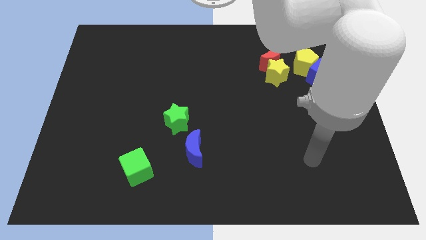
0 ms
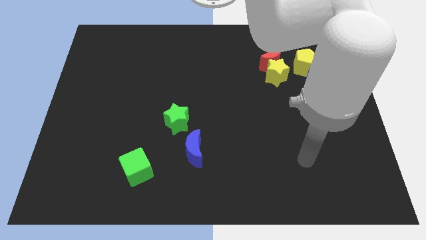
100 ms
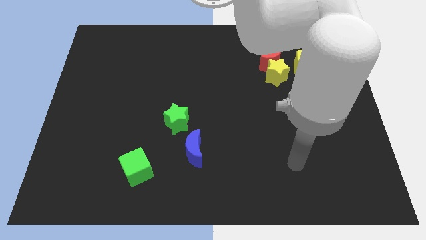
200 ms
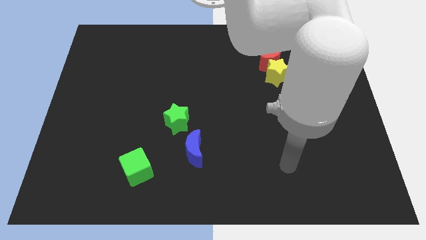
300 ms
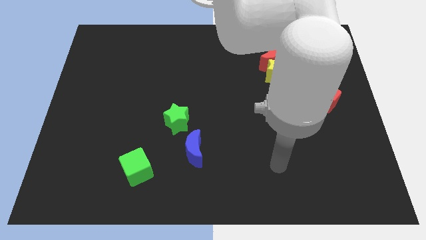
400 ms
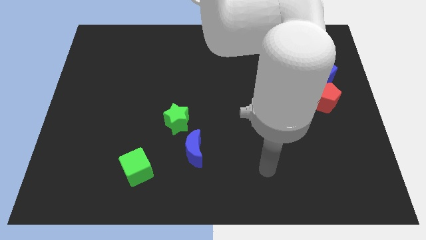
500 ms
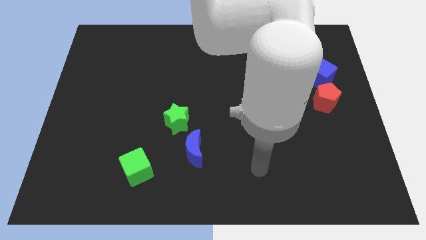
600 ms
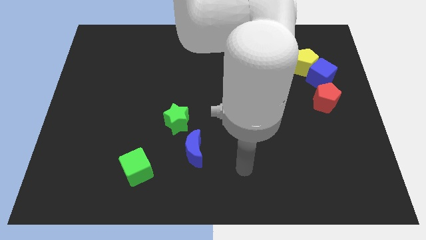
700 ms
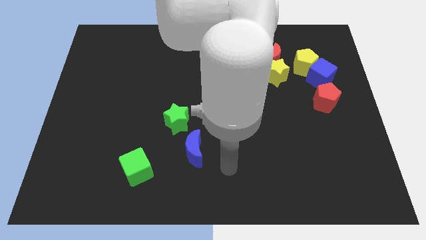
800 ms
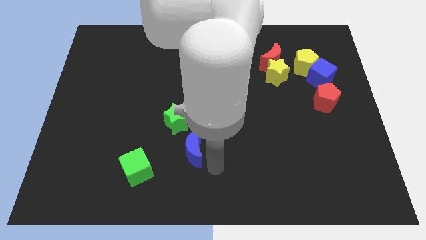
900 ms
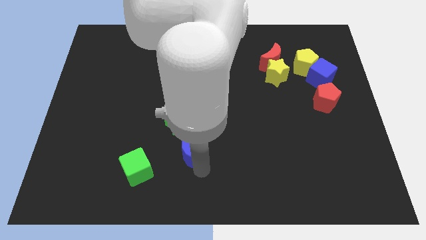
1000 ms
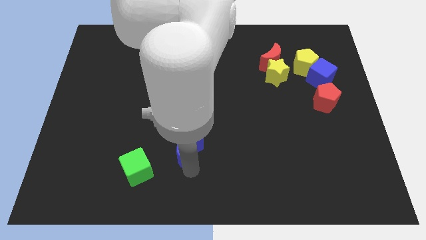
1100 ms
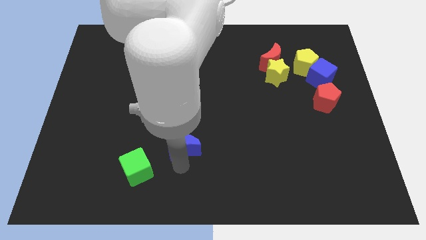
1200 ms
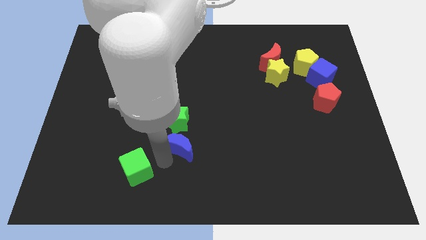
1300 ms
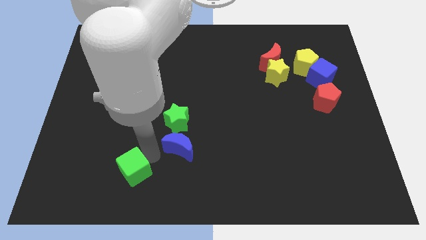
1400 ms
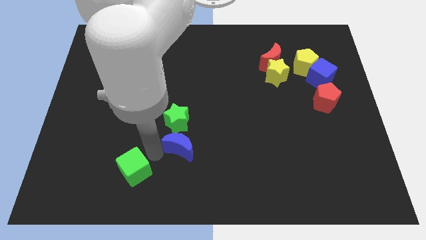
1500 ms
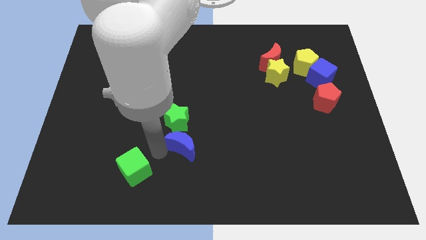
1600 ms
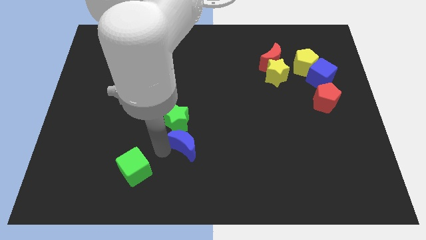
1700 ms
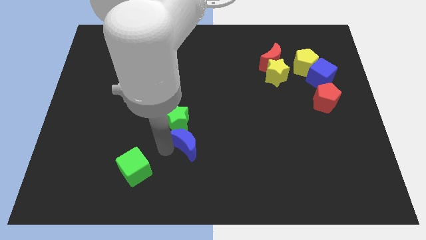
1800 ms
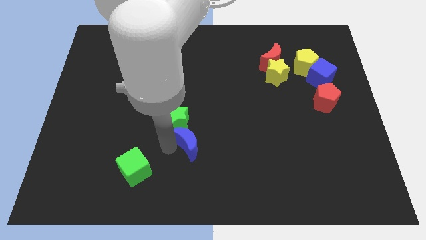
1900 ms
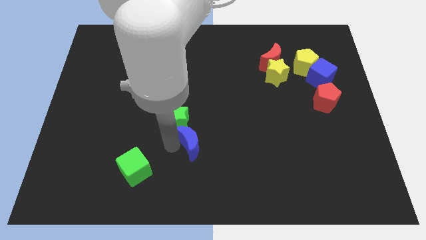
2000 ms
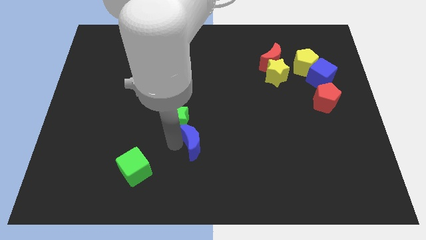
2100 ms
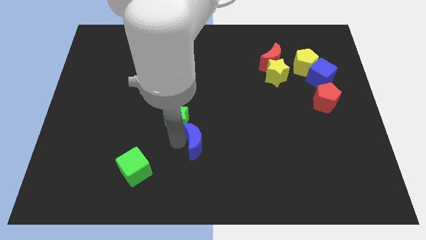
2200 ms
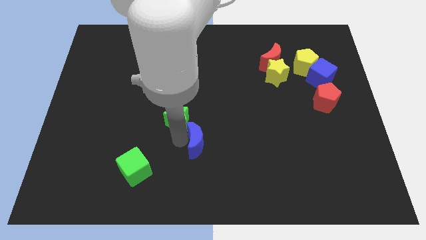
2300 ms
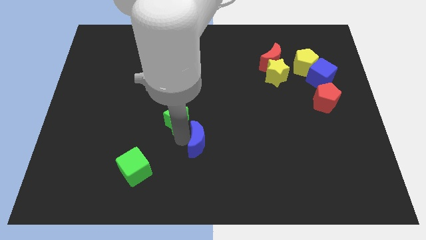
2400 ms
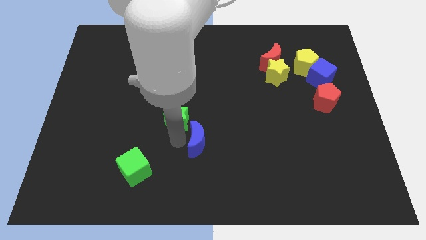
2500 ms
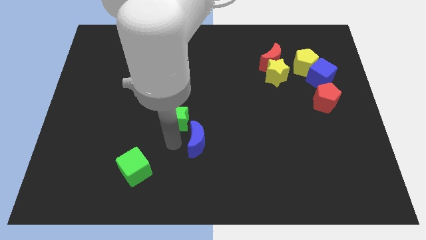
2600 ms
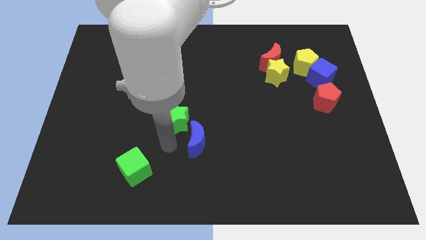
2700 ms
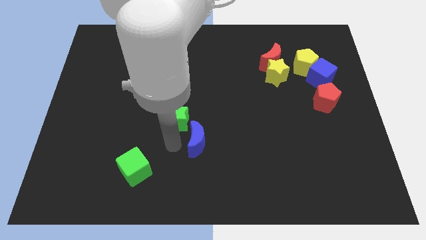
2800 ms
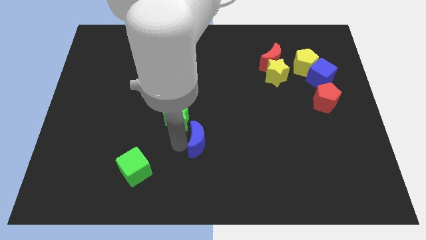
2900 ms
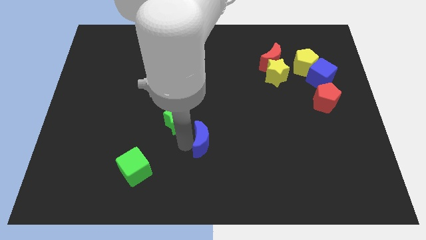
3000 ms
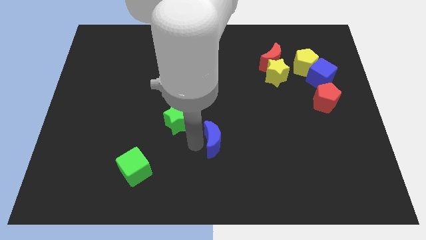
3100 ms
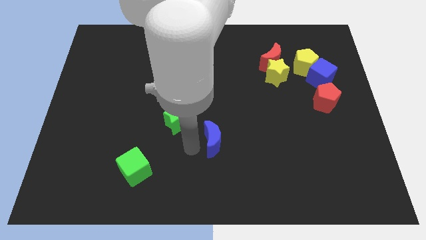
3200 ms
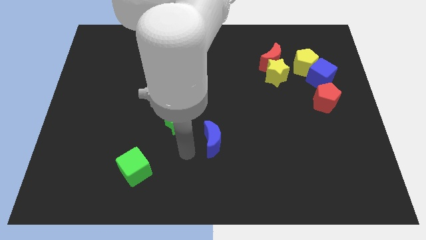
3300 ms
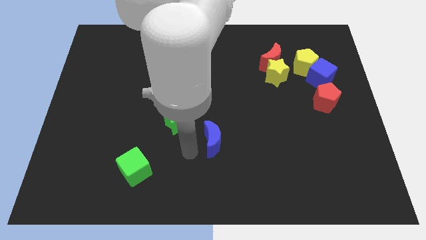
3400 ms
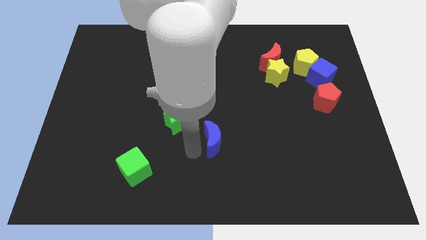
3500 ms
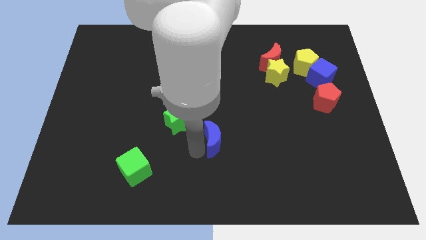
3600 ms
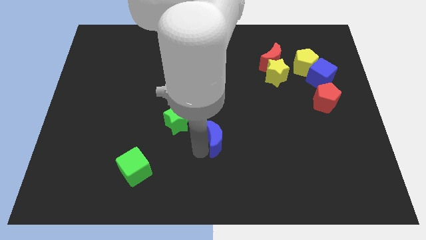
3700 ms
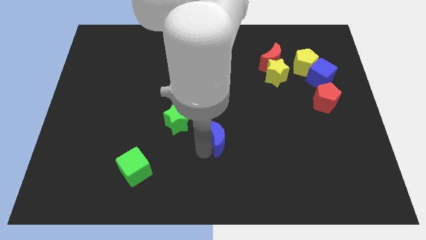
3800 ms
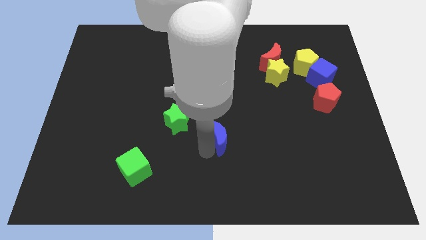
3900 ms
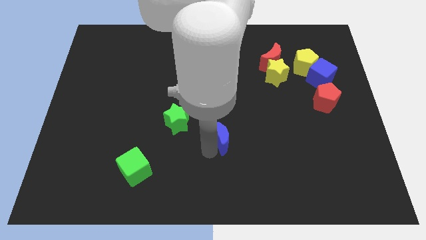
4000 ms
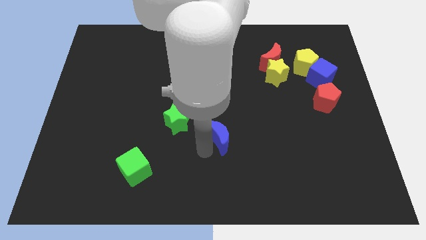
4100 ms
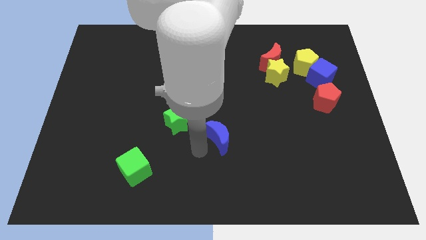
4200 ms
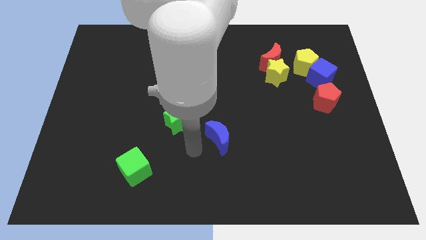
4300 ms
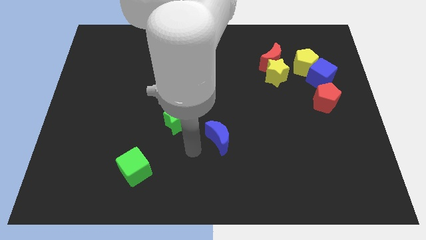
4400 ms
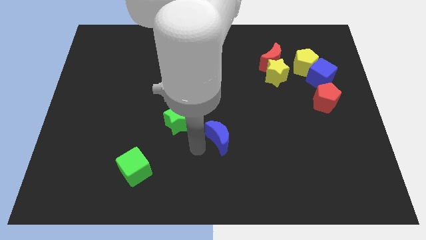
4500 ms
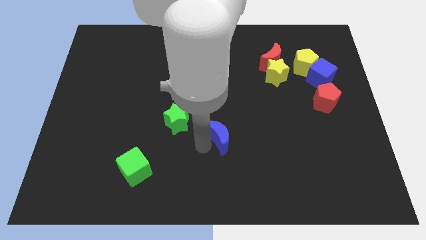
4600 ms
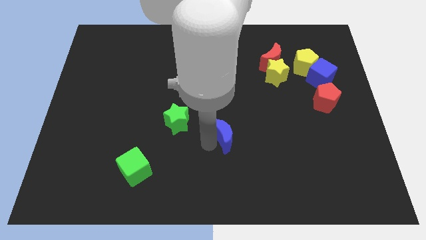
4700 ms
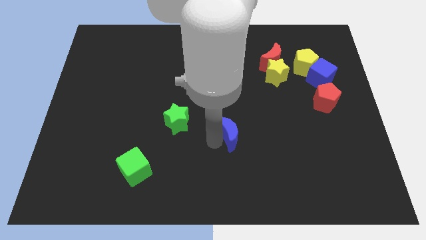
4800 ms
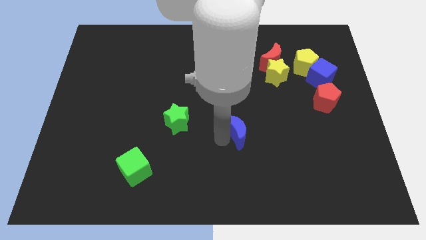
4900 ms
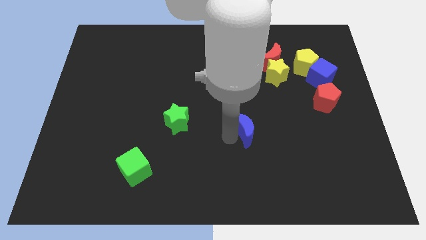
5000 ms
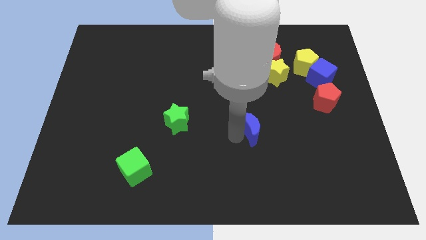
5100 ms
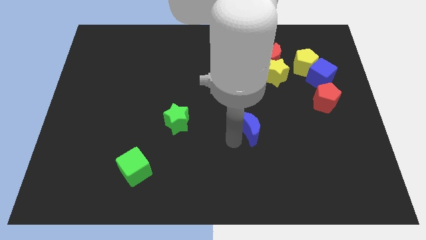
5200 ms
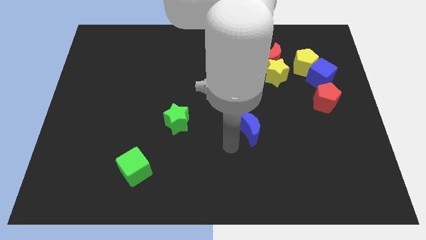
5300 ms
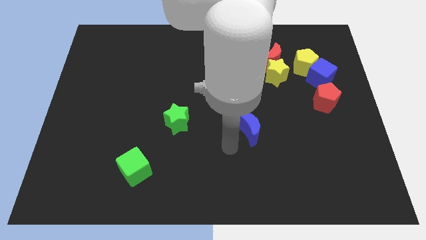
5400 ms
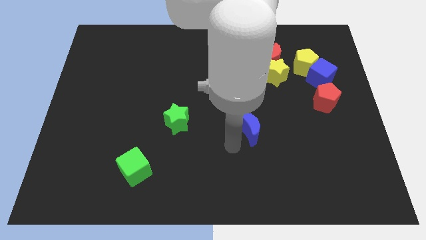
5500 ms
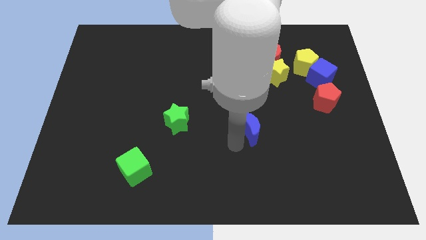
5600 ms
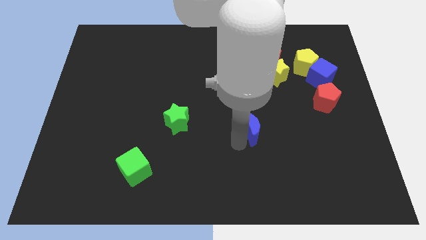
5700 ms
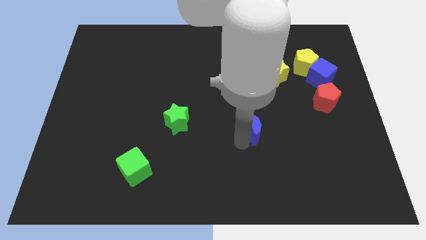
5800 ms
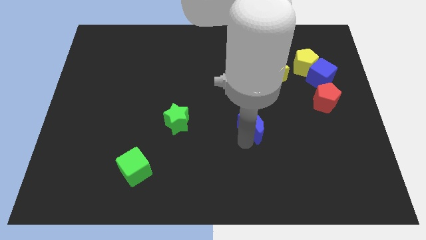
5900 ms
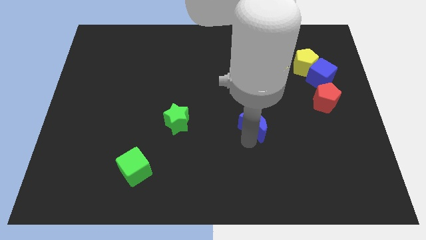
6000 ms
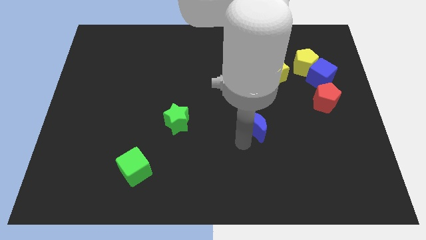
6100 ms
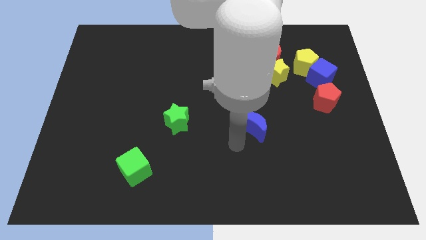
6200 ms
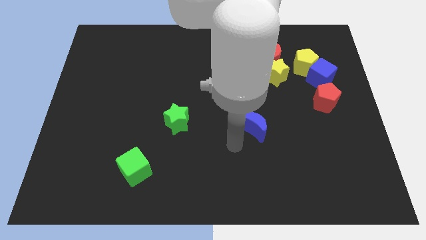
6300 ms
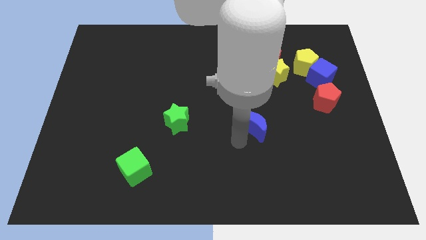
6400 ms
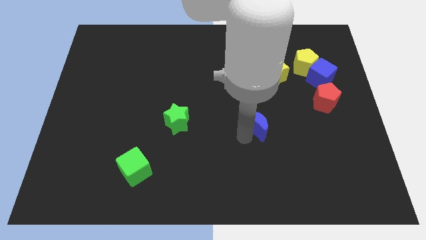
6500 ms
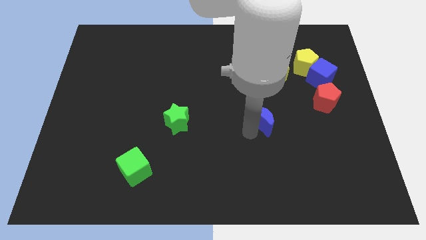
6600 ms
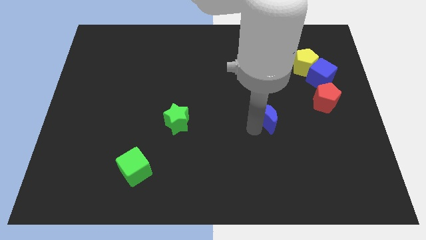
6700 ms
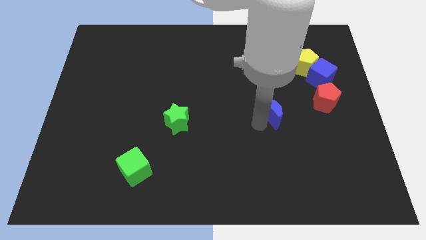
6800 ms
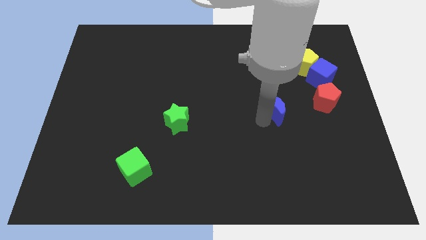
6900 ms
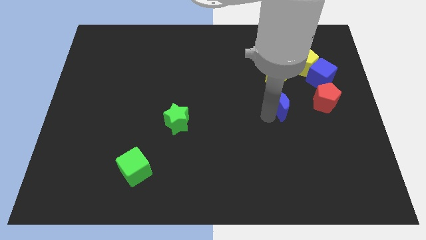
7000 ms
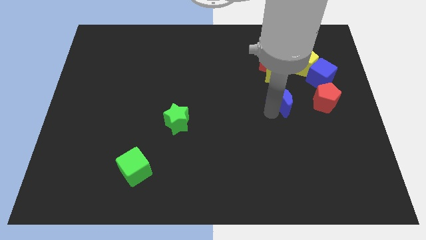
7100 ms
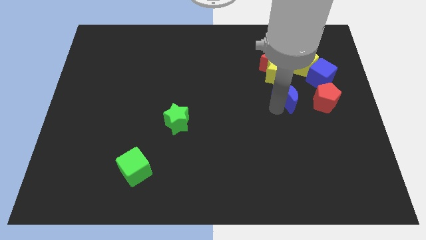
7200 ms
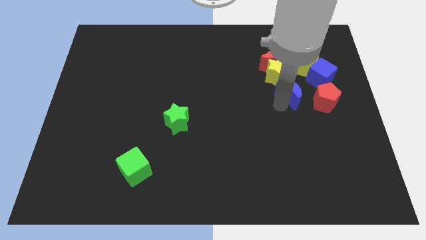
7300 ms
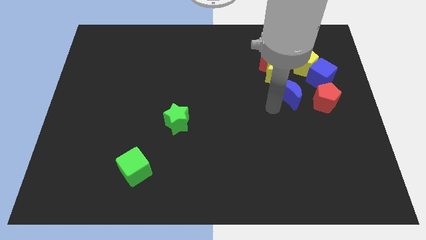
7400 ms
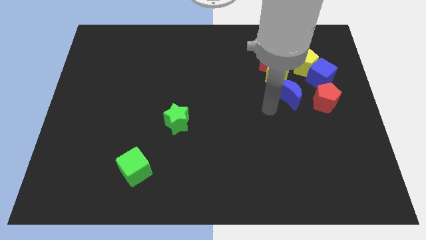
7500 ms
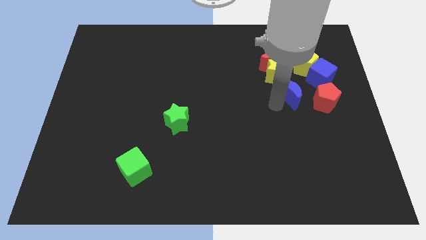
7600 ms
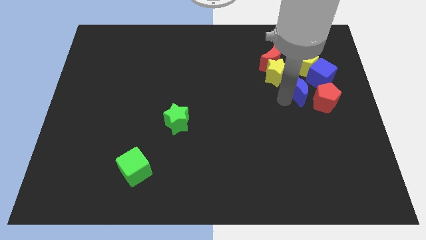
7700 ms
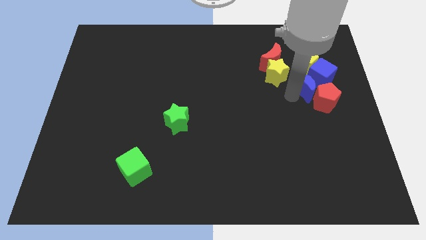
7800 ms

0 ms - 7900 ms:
slide the blue moon to the blue cube
